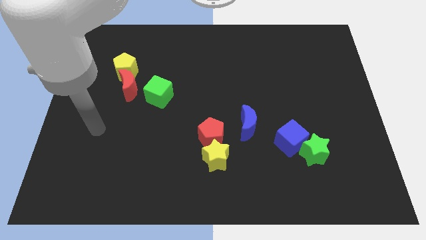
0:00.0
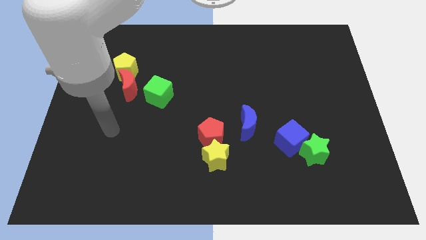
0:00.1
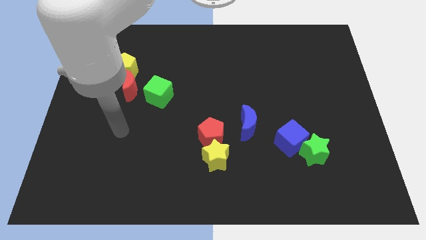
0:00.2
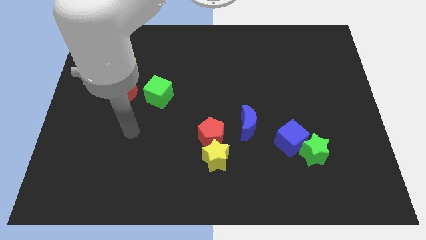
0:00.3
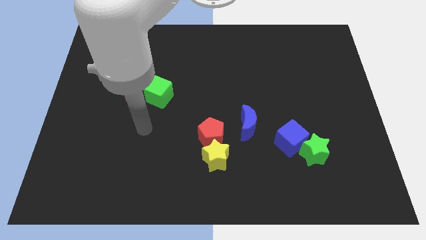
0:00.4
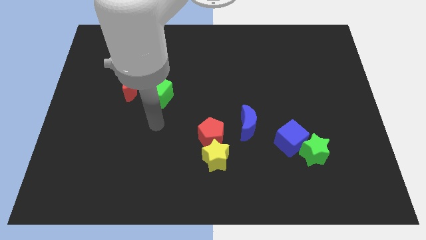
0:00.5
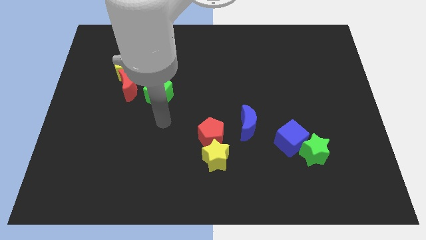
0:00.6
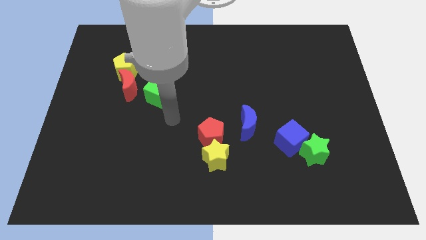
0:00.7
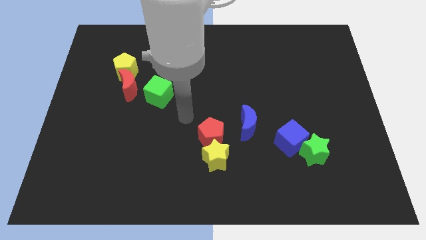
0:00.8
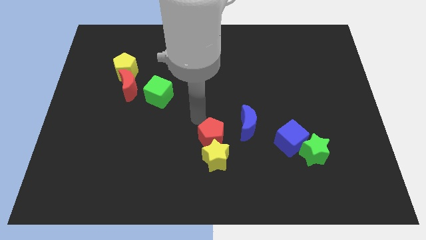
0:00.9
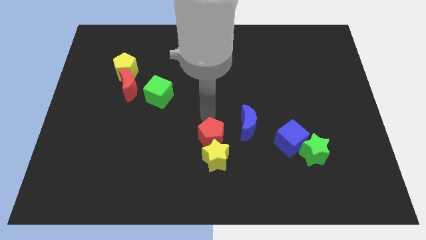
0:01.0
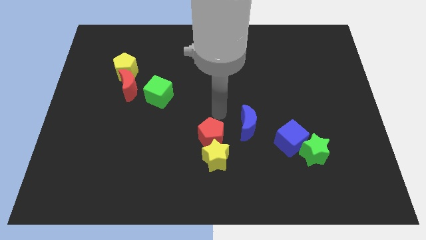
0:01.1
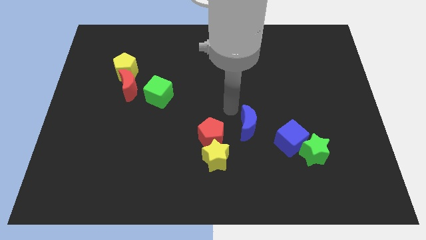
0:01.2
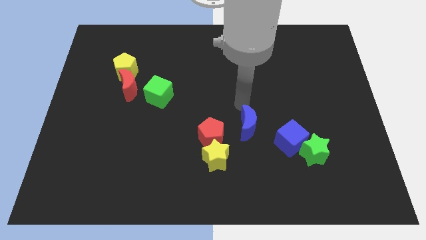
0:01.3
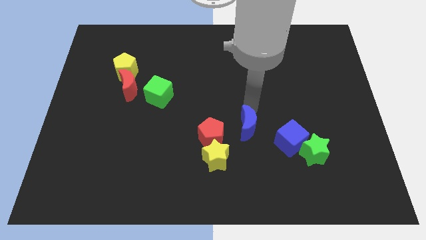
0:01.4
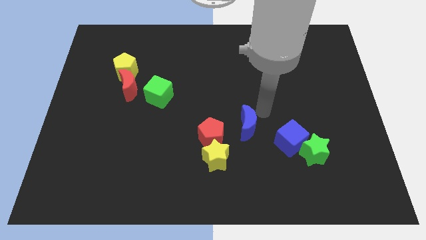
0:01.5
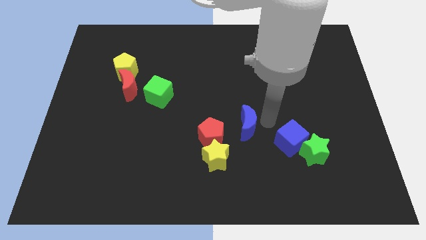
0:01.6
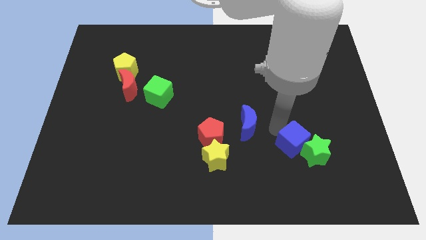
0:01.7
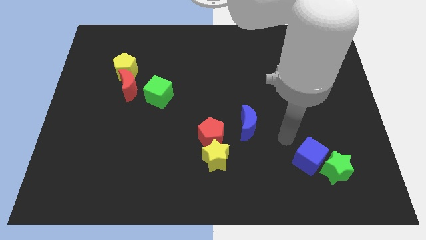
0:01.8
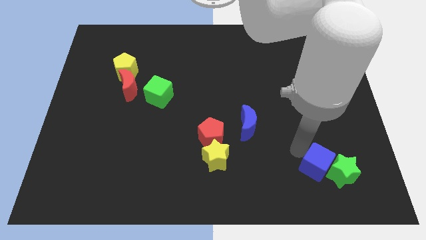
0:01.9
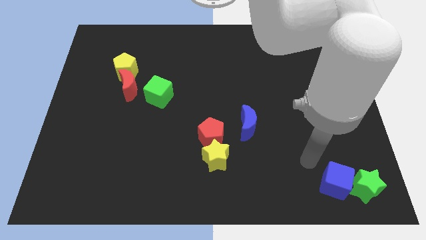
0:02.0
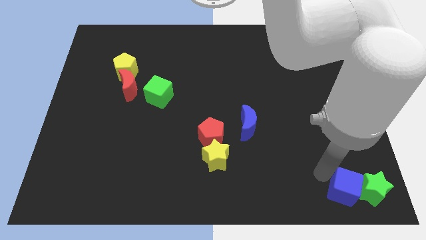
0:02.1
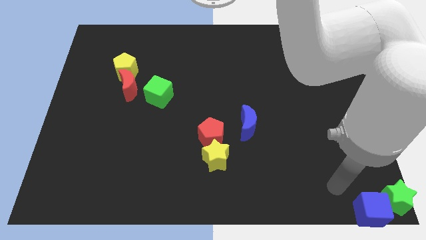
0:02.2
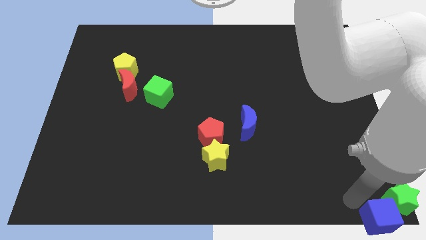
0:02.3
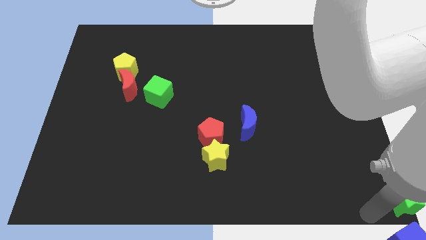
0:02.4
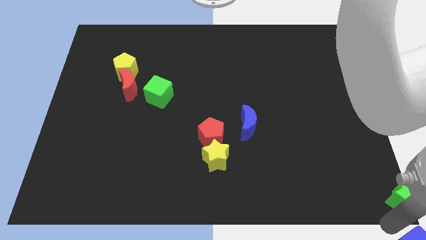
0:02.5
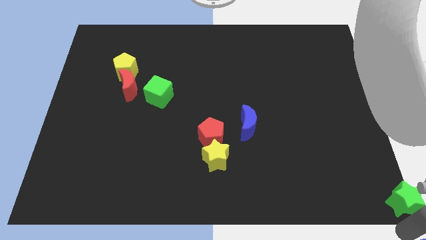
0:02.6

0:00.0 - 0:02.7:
move the green star away from the blue cube

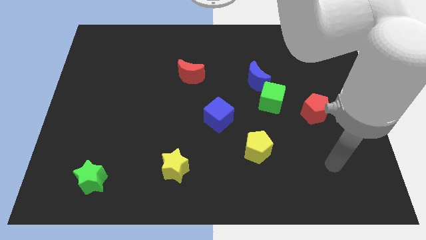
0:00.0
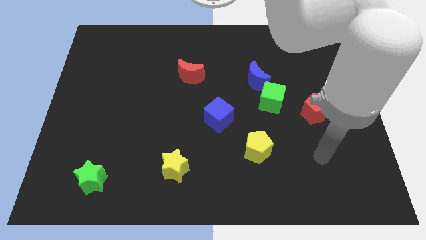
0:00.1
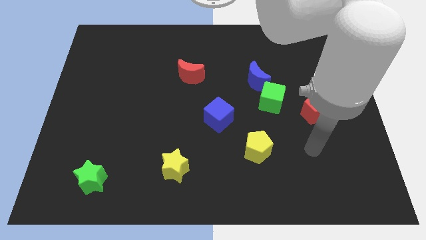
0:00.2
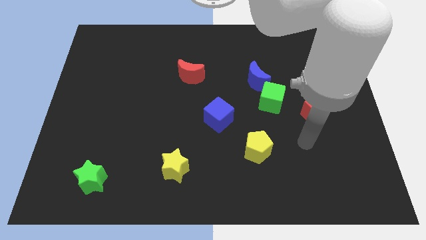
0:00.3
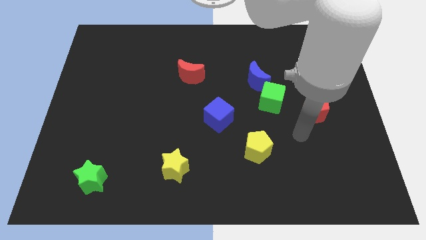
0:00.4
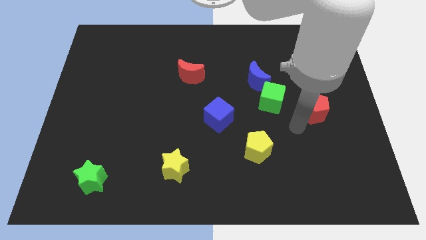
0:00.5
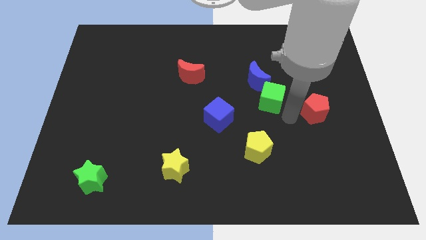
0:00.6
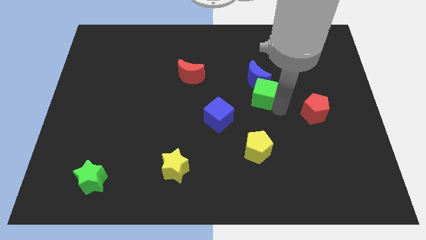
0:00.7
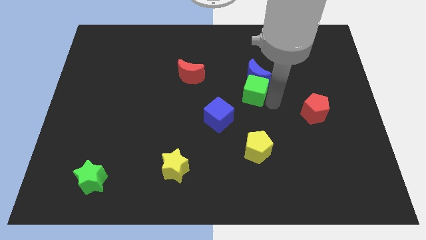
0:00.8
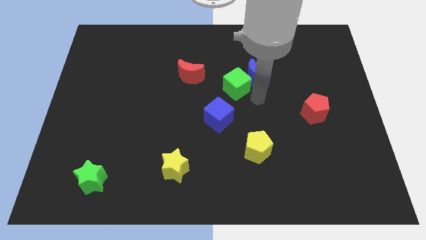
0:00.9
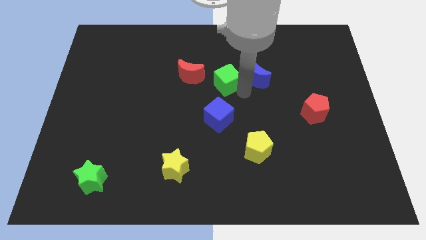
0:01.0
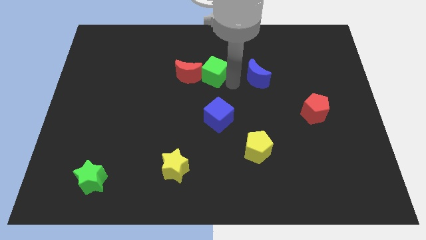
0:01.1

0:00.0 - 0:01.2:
move the blue moon away from the green cube

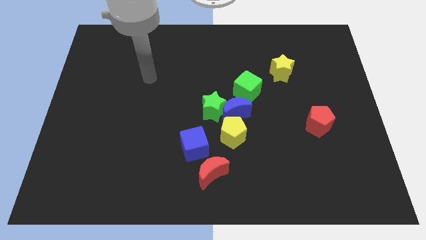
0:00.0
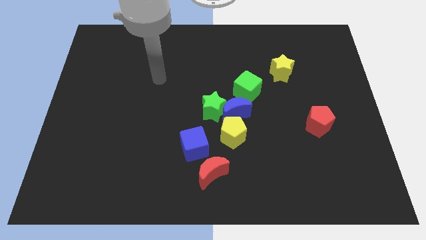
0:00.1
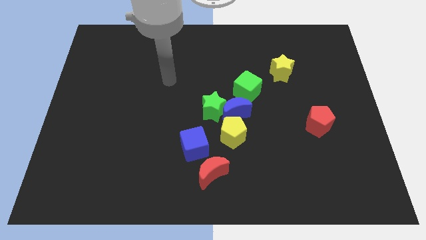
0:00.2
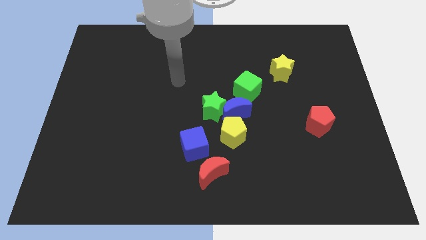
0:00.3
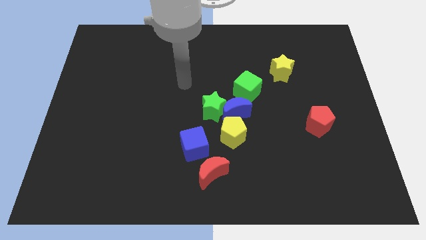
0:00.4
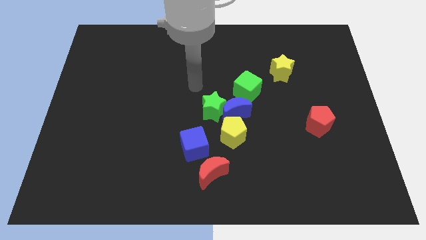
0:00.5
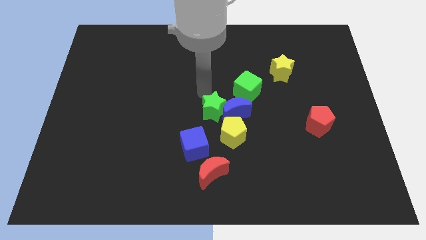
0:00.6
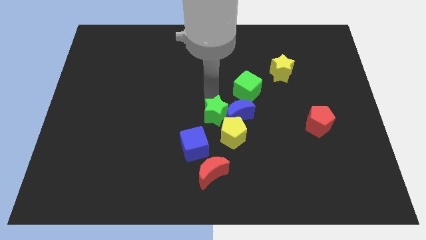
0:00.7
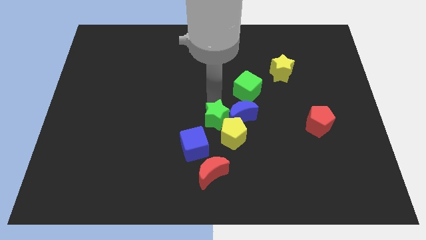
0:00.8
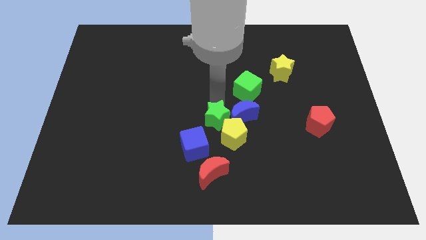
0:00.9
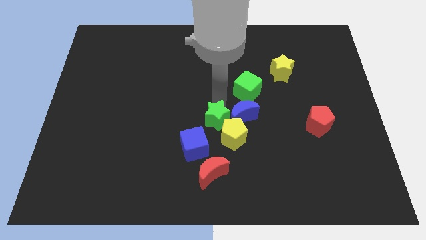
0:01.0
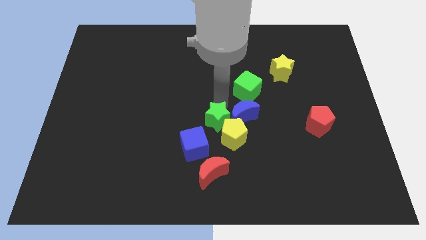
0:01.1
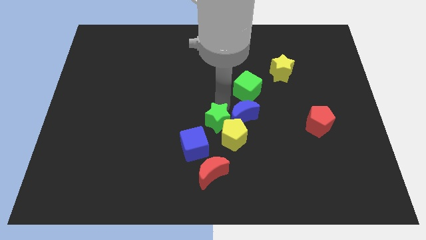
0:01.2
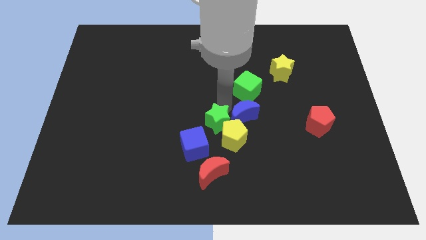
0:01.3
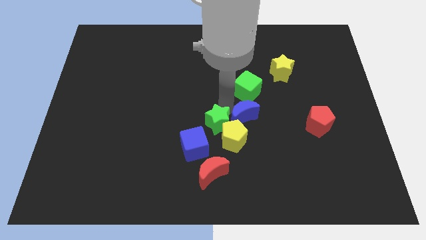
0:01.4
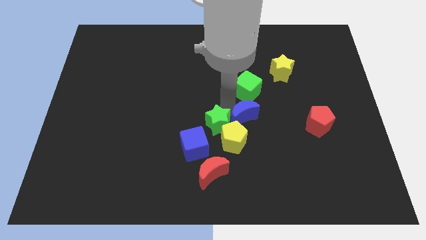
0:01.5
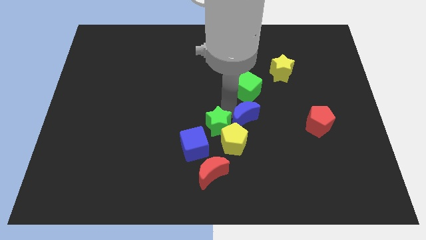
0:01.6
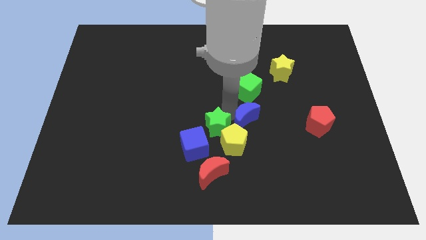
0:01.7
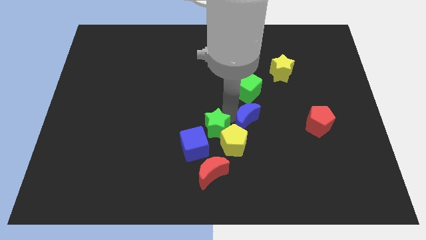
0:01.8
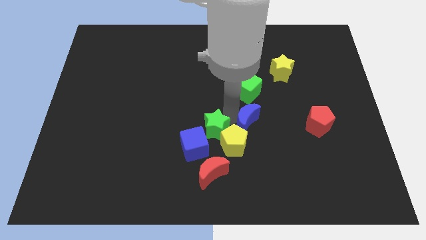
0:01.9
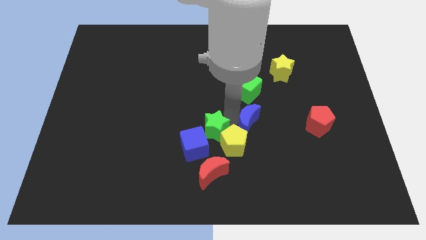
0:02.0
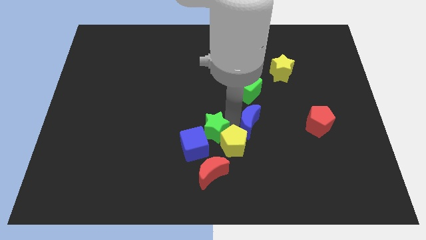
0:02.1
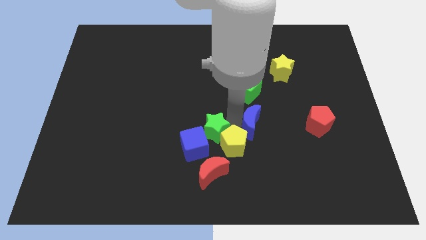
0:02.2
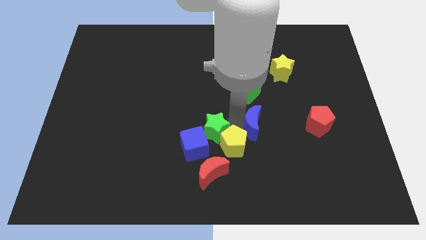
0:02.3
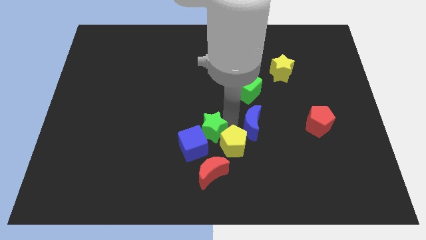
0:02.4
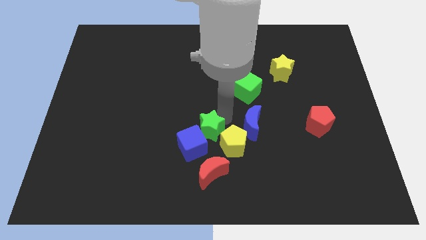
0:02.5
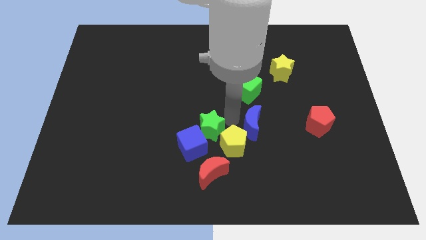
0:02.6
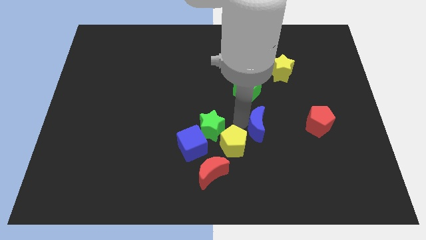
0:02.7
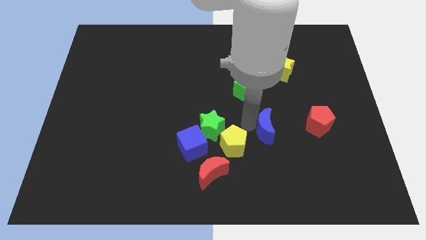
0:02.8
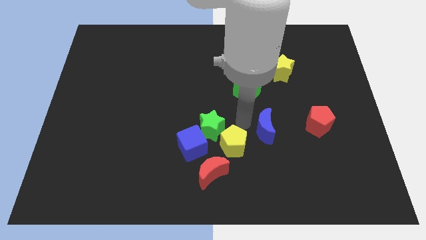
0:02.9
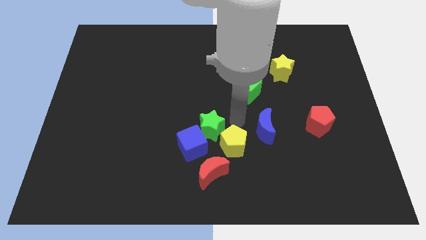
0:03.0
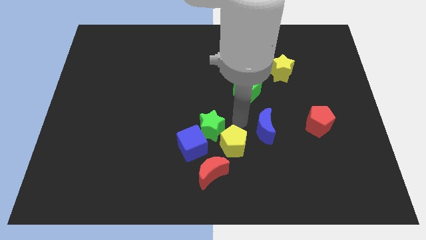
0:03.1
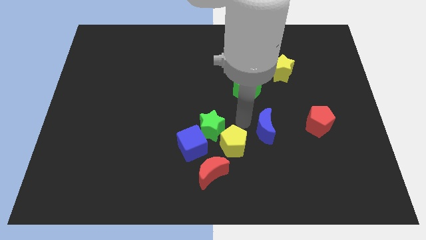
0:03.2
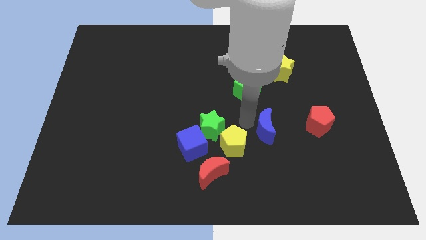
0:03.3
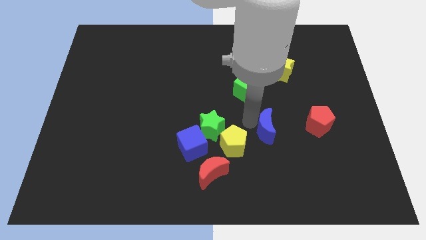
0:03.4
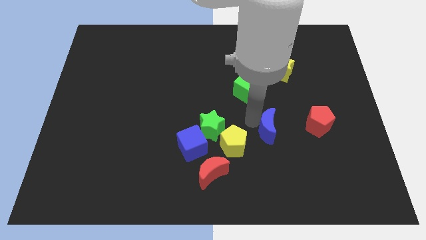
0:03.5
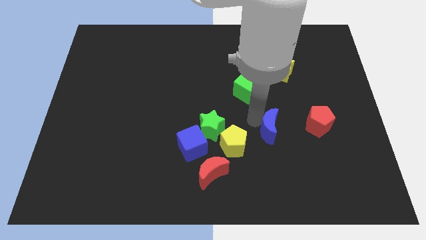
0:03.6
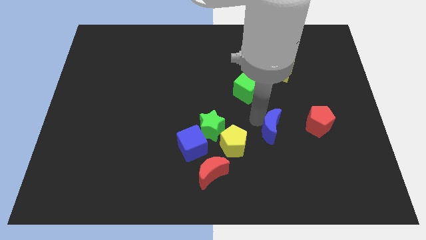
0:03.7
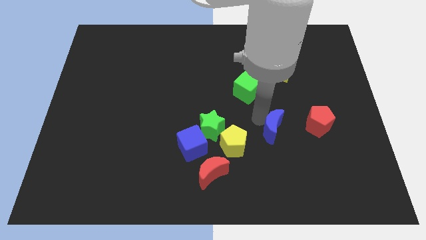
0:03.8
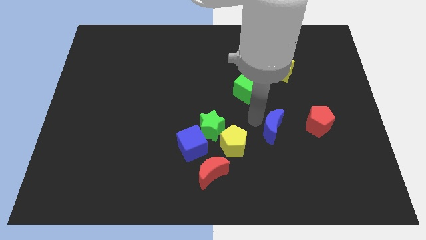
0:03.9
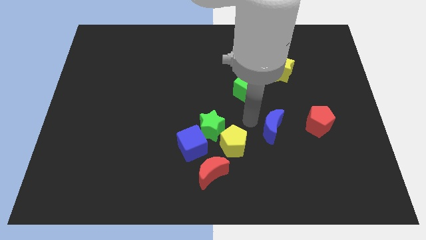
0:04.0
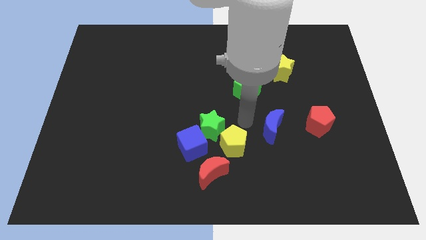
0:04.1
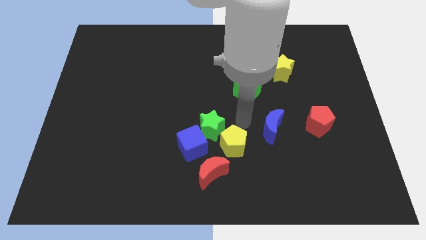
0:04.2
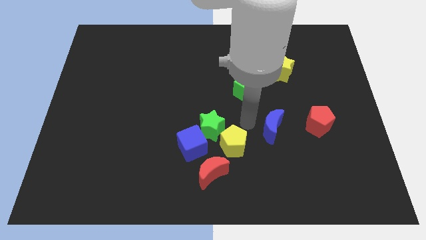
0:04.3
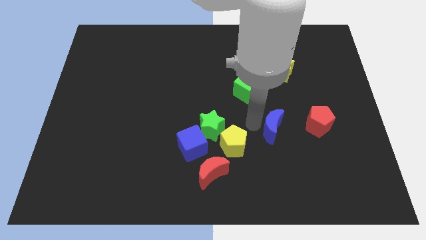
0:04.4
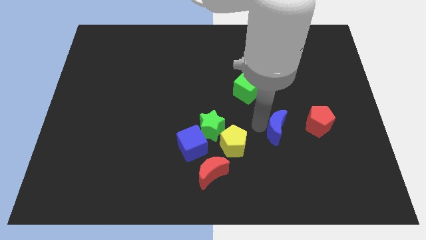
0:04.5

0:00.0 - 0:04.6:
separate the blue moon from the group of blocks

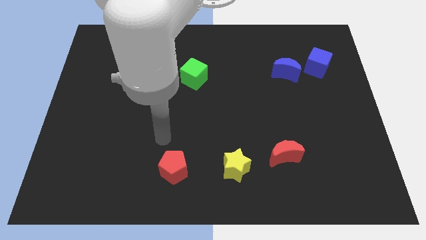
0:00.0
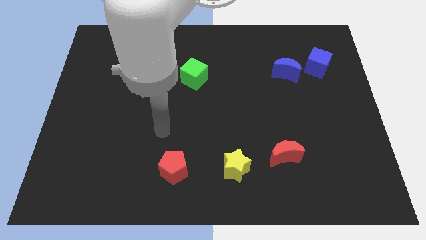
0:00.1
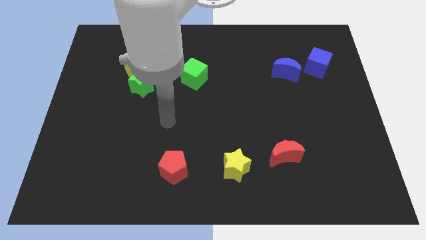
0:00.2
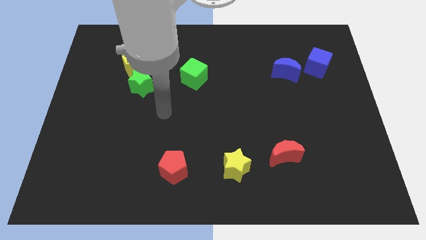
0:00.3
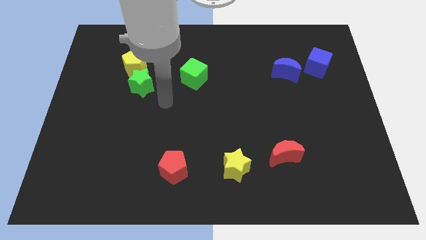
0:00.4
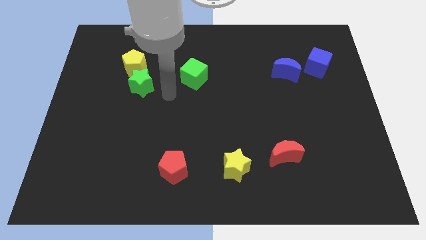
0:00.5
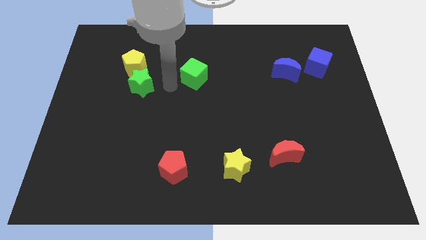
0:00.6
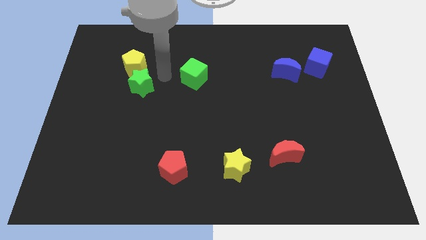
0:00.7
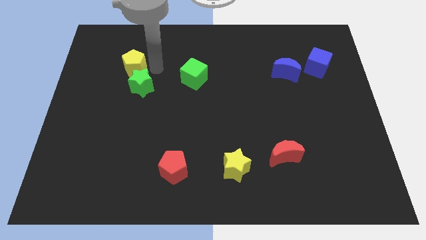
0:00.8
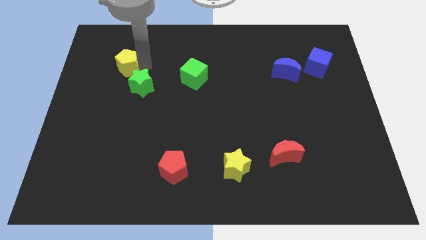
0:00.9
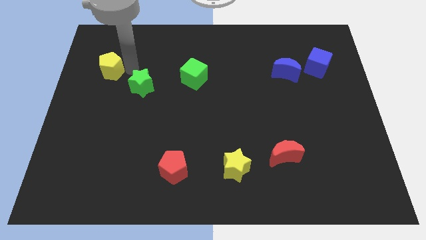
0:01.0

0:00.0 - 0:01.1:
move the green star away from the yellow pentagon
